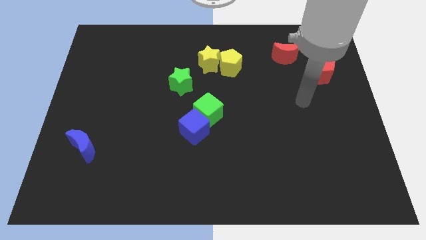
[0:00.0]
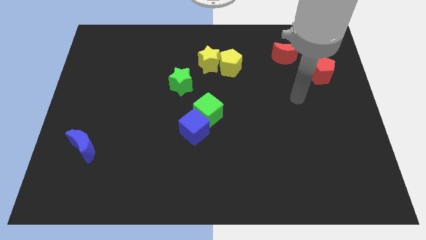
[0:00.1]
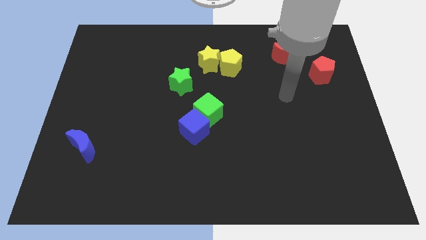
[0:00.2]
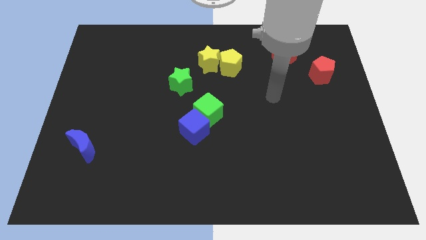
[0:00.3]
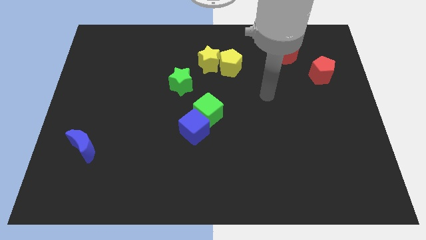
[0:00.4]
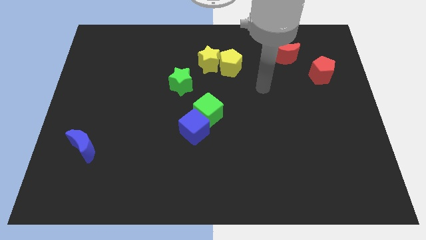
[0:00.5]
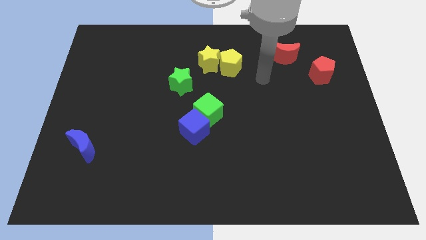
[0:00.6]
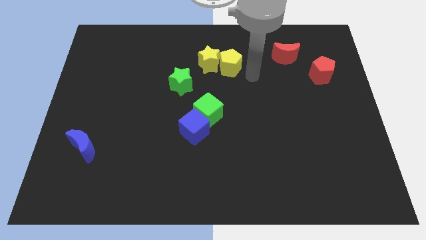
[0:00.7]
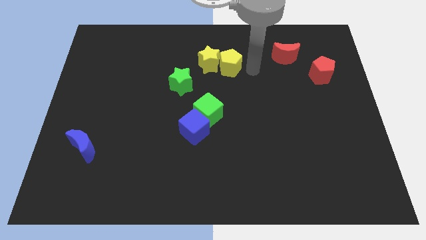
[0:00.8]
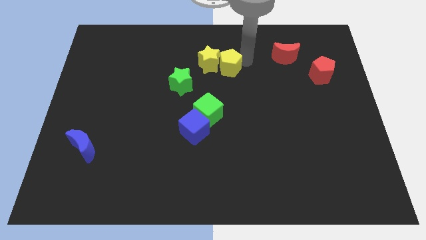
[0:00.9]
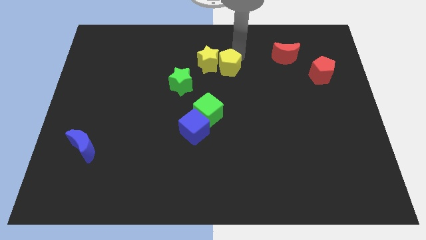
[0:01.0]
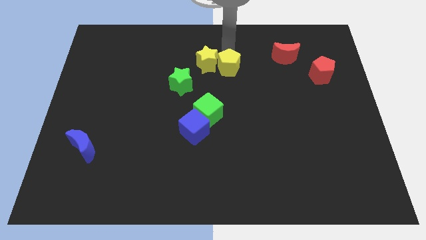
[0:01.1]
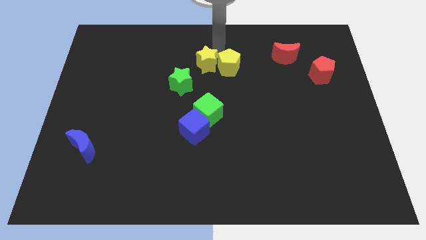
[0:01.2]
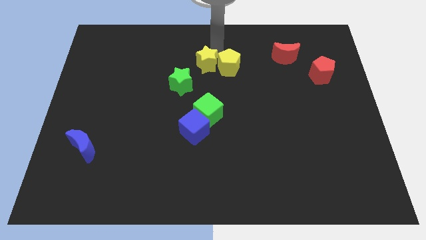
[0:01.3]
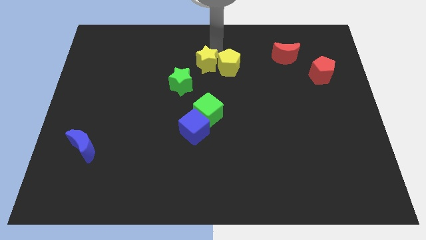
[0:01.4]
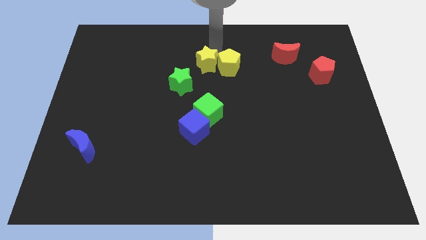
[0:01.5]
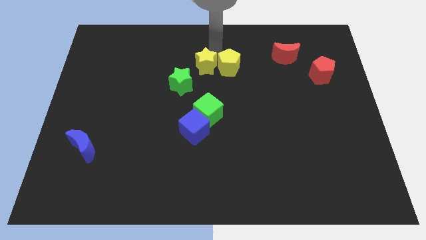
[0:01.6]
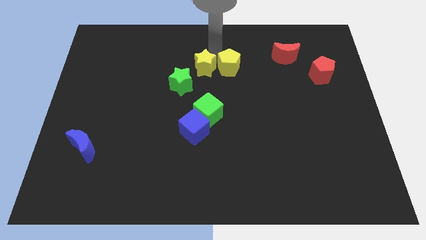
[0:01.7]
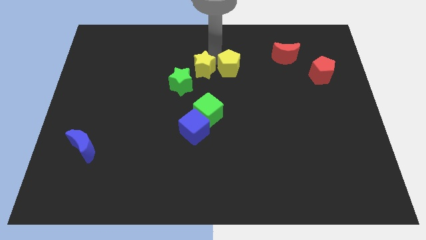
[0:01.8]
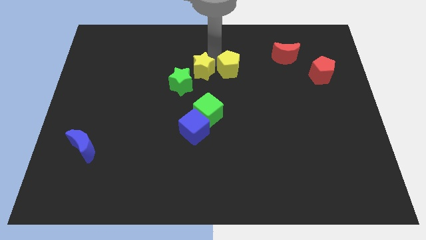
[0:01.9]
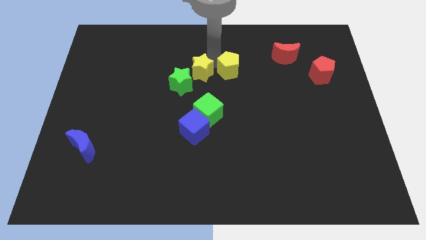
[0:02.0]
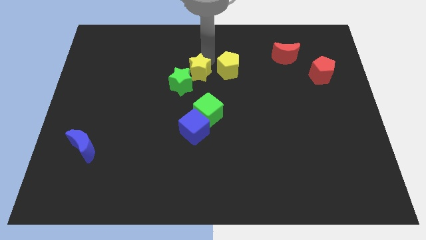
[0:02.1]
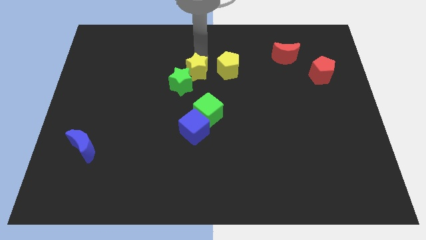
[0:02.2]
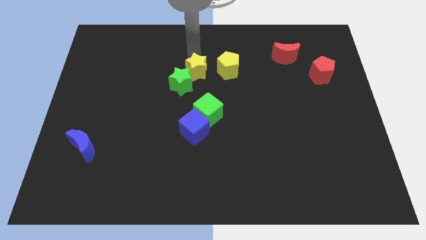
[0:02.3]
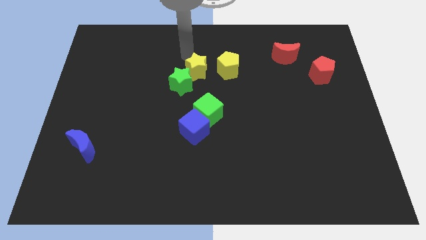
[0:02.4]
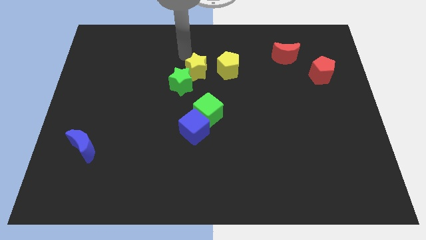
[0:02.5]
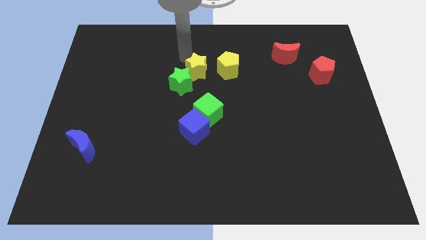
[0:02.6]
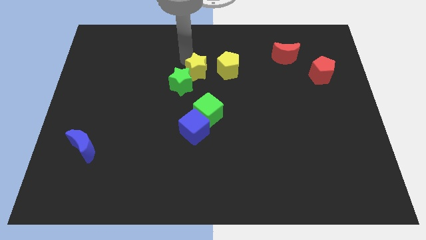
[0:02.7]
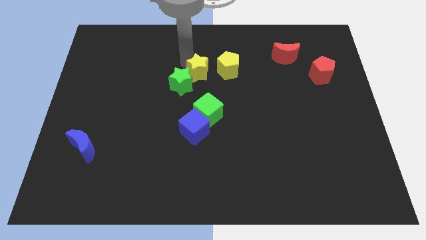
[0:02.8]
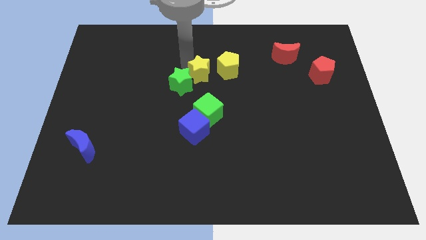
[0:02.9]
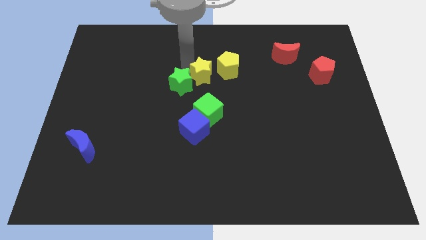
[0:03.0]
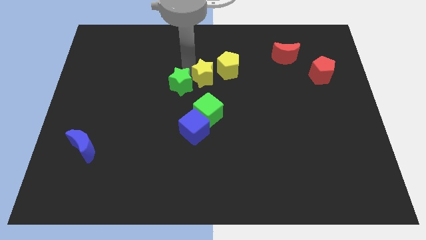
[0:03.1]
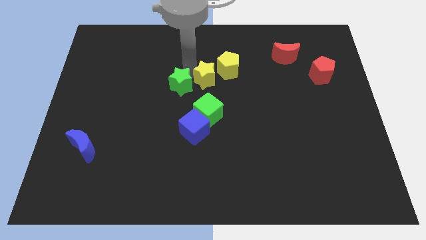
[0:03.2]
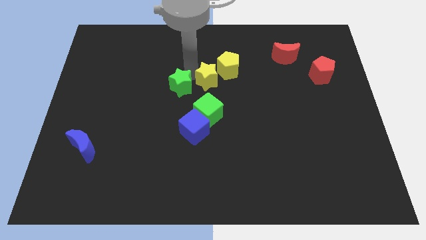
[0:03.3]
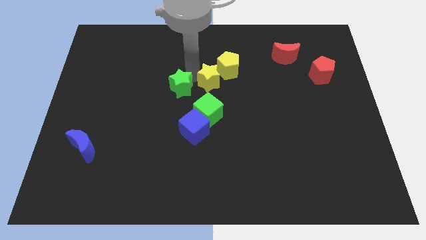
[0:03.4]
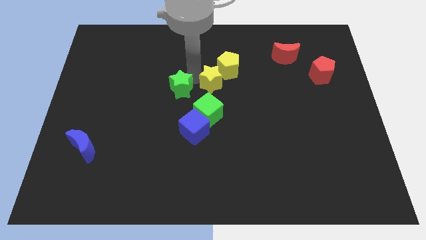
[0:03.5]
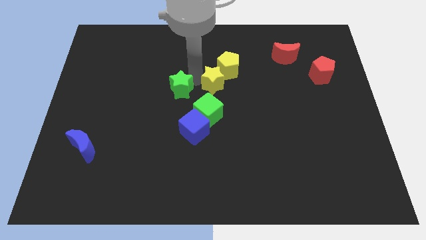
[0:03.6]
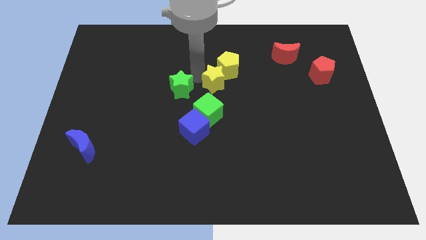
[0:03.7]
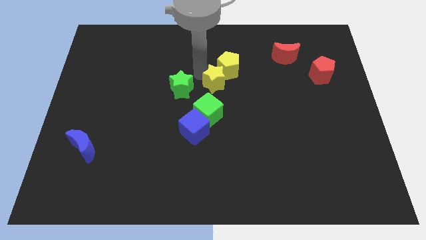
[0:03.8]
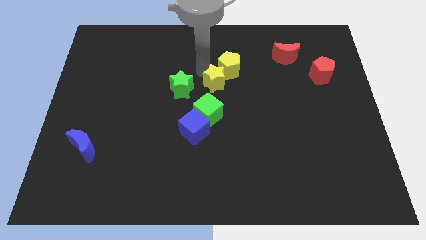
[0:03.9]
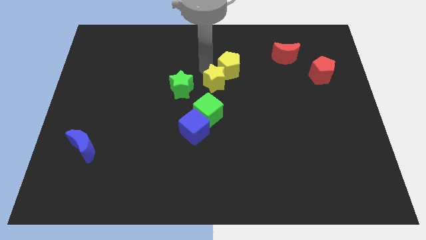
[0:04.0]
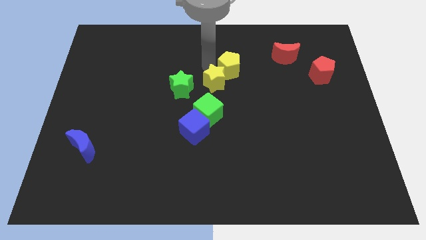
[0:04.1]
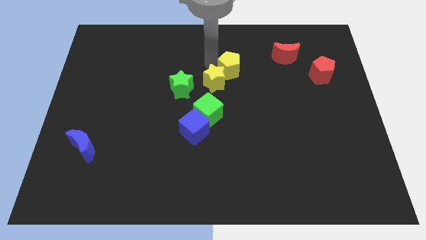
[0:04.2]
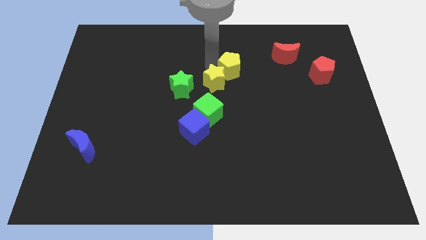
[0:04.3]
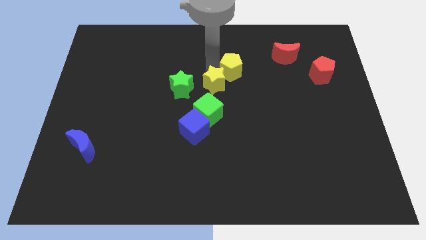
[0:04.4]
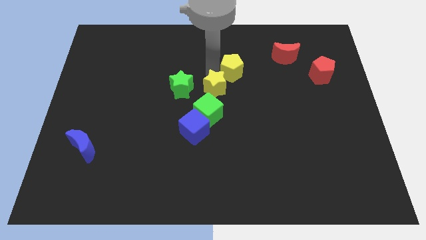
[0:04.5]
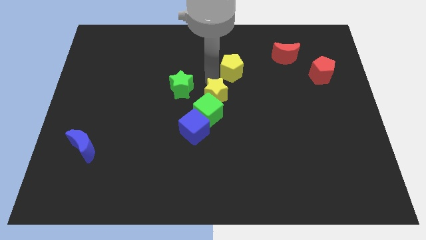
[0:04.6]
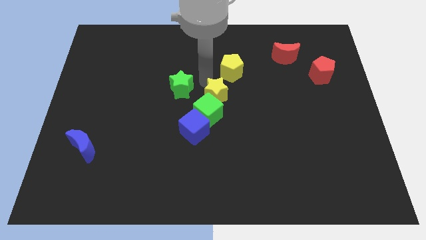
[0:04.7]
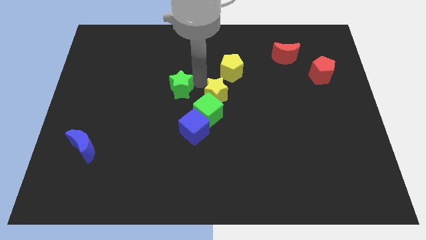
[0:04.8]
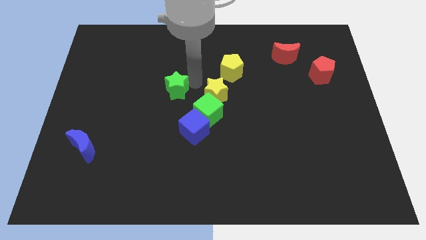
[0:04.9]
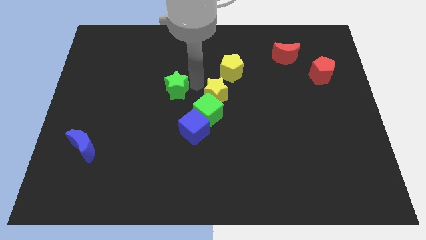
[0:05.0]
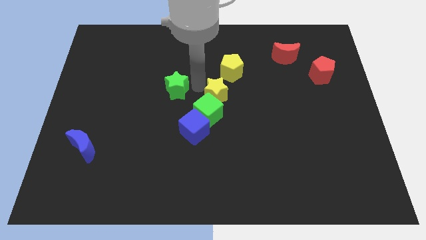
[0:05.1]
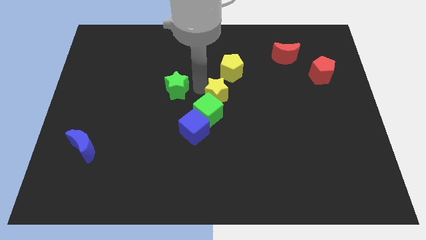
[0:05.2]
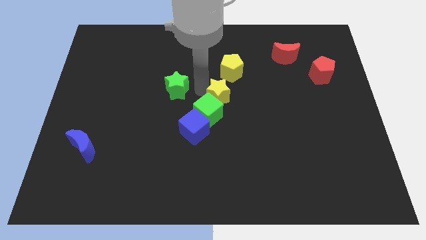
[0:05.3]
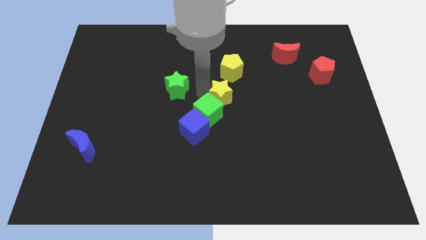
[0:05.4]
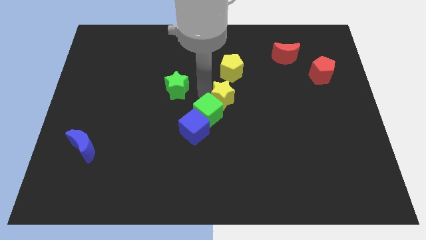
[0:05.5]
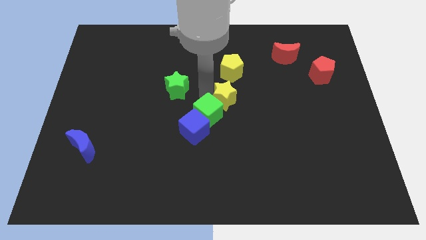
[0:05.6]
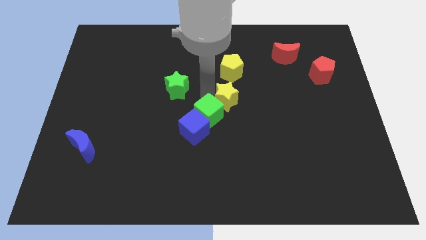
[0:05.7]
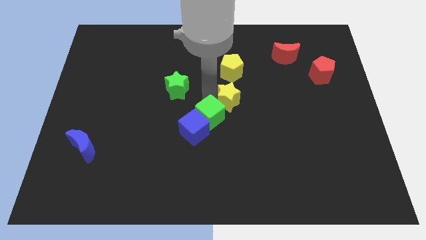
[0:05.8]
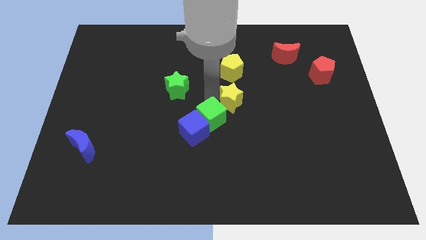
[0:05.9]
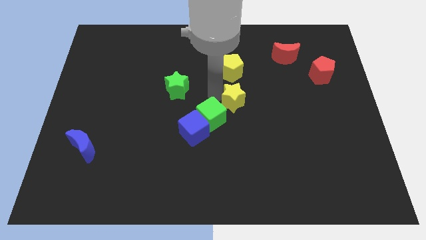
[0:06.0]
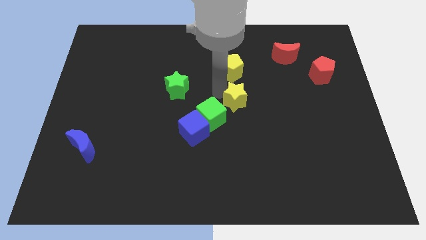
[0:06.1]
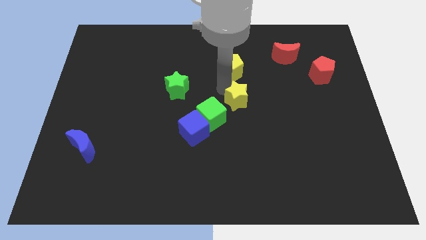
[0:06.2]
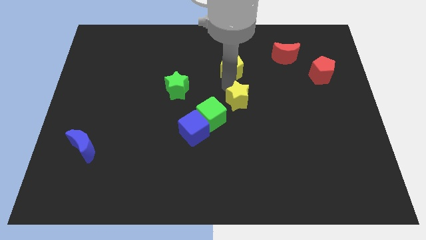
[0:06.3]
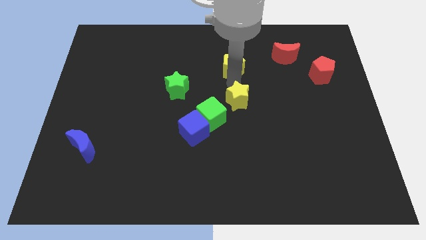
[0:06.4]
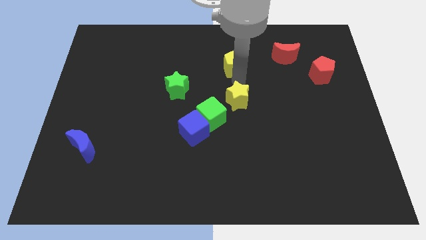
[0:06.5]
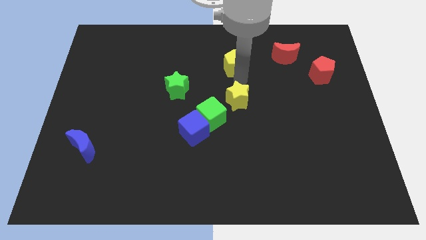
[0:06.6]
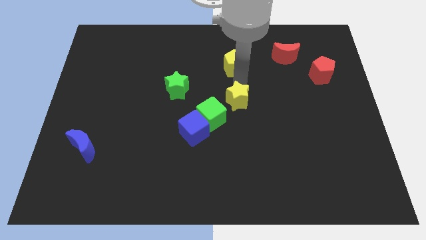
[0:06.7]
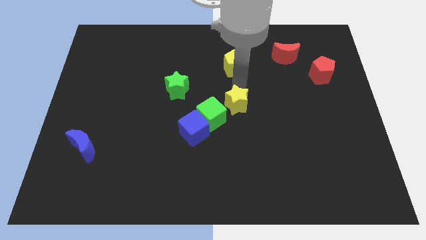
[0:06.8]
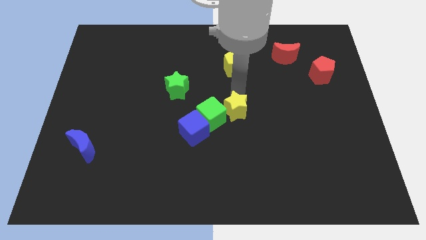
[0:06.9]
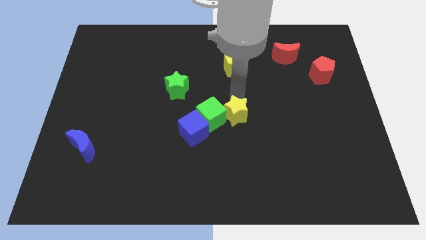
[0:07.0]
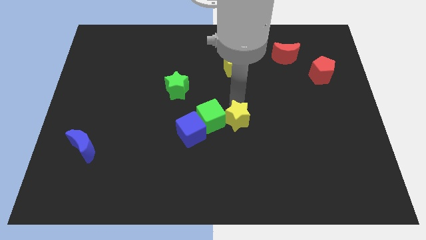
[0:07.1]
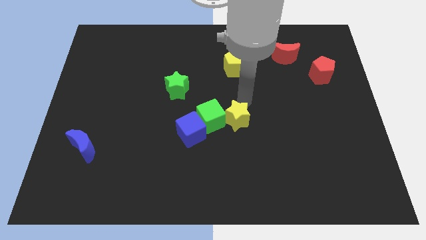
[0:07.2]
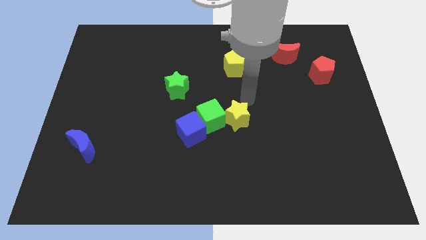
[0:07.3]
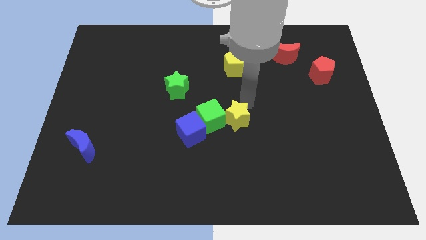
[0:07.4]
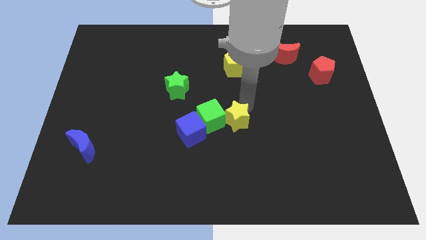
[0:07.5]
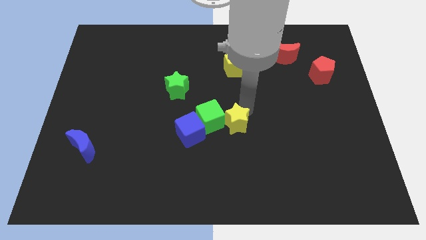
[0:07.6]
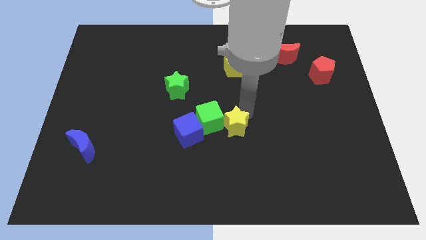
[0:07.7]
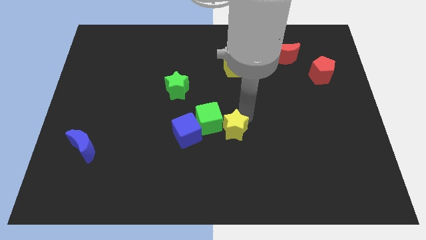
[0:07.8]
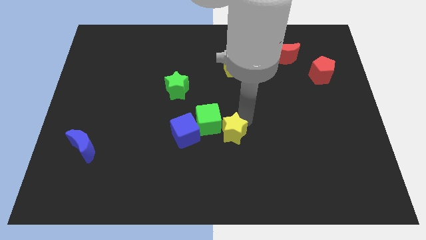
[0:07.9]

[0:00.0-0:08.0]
move the yellow star downwards
